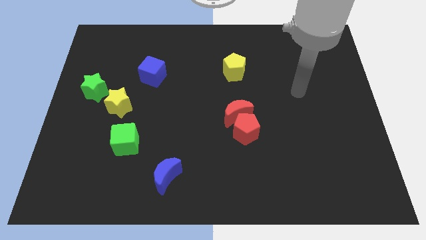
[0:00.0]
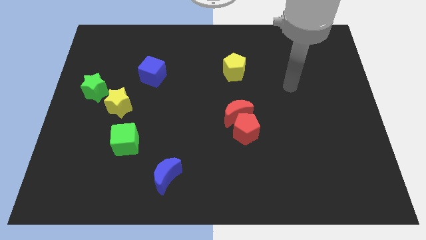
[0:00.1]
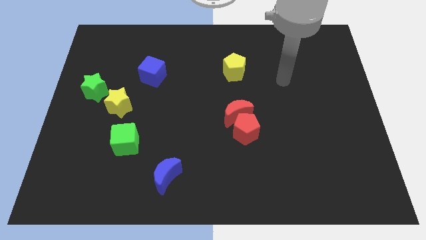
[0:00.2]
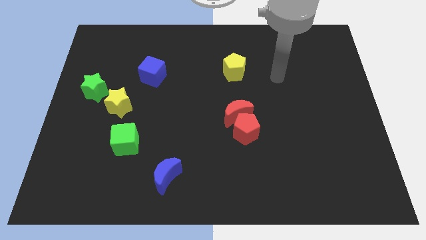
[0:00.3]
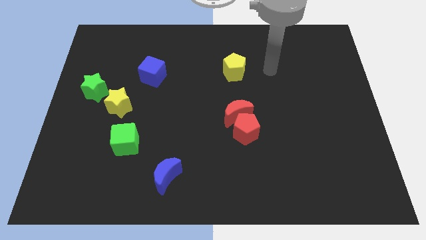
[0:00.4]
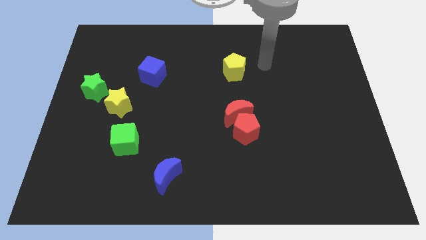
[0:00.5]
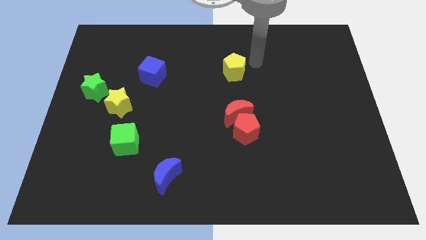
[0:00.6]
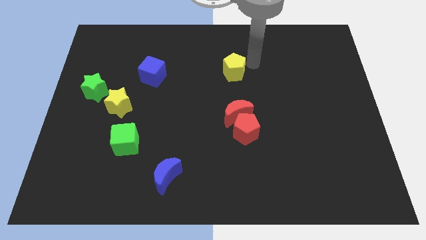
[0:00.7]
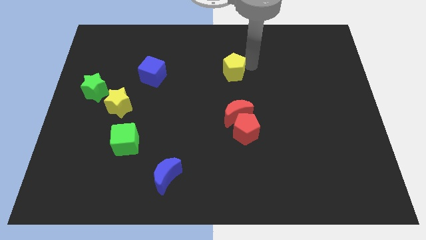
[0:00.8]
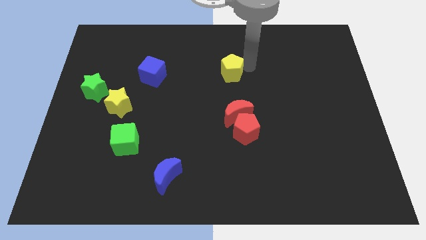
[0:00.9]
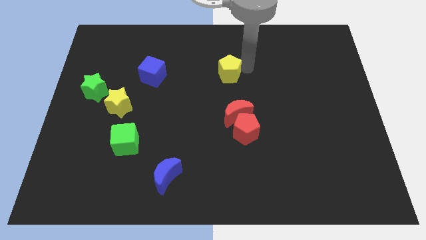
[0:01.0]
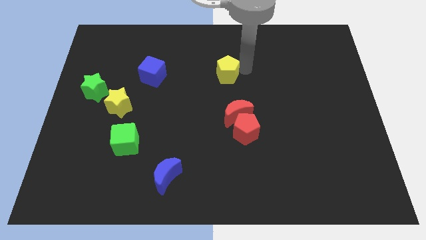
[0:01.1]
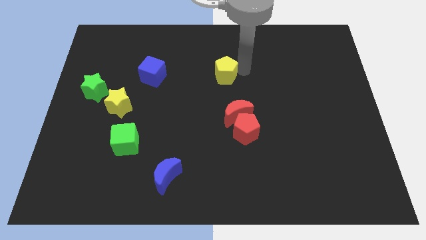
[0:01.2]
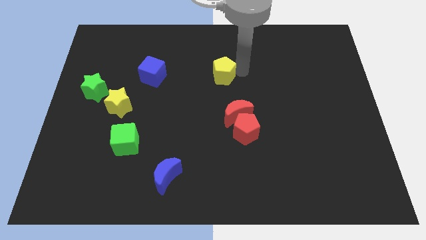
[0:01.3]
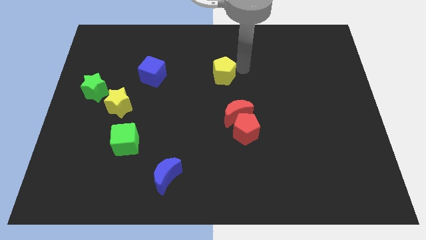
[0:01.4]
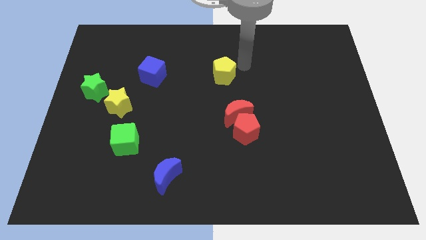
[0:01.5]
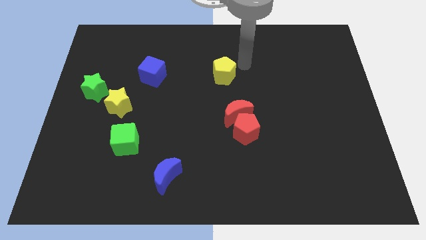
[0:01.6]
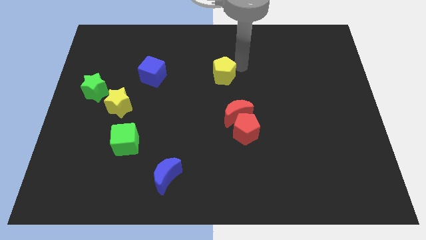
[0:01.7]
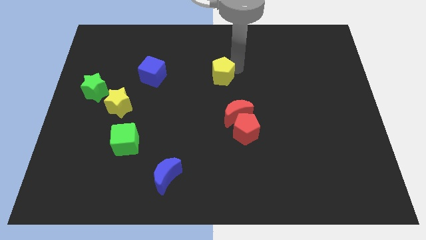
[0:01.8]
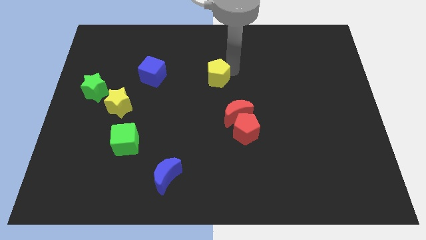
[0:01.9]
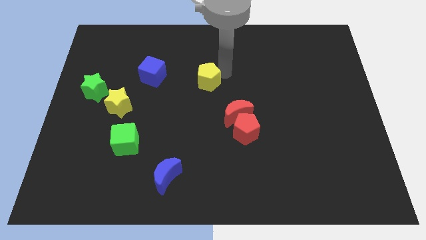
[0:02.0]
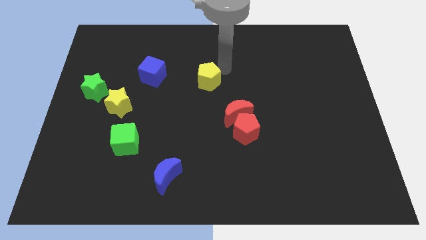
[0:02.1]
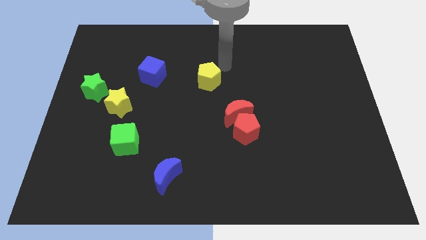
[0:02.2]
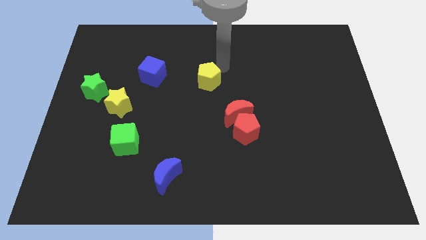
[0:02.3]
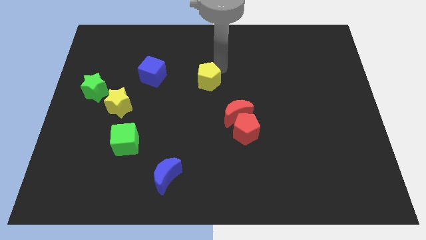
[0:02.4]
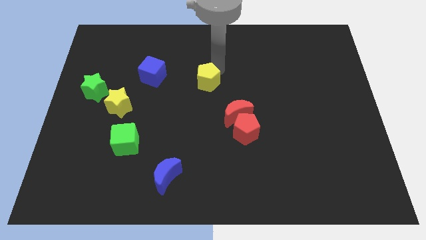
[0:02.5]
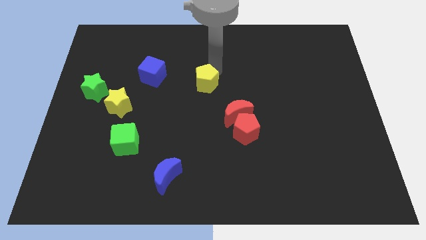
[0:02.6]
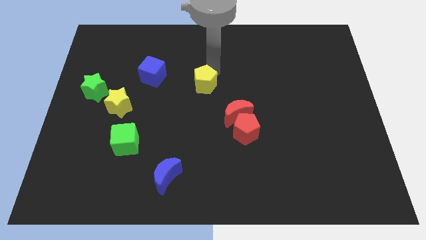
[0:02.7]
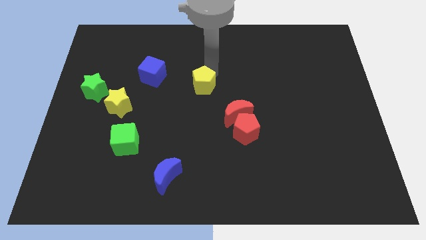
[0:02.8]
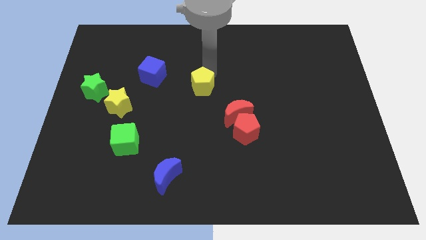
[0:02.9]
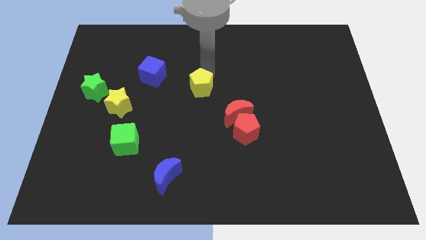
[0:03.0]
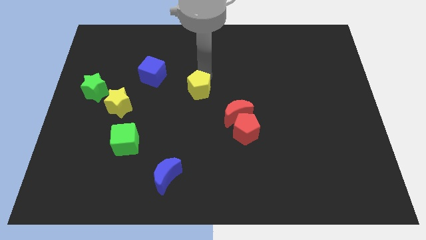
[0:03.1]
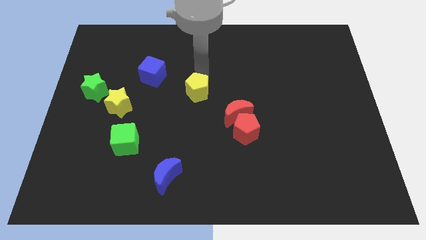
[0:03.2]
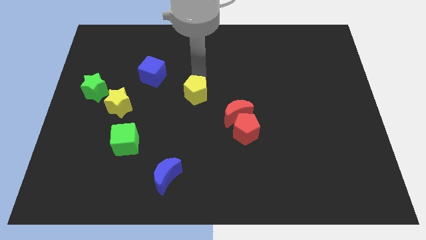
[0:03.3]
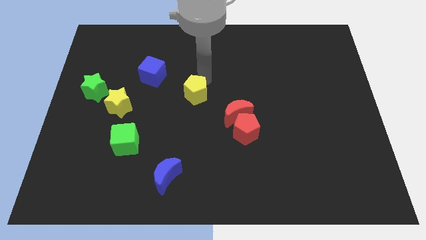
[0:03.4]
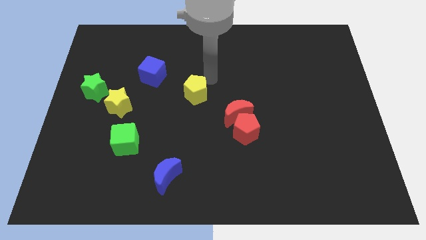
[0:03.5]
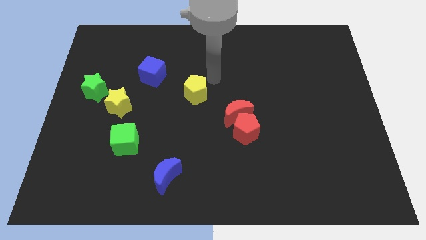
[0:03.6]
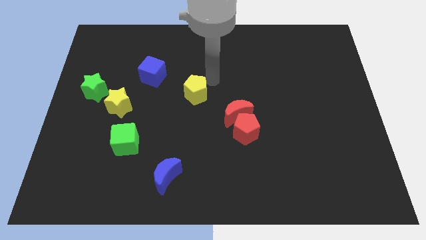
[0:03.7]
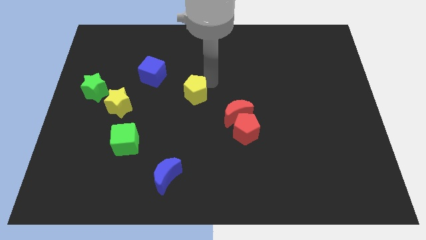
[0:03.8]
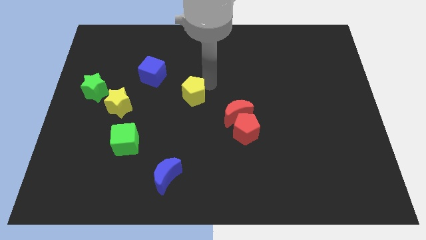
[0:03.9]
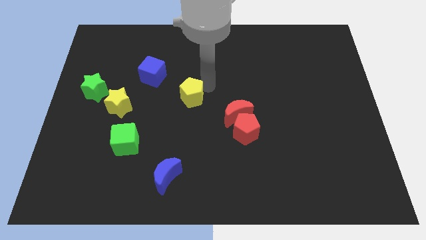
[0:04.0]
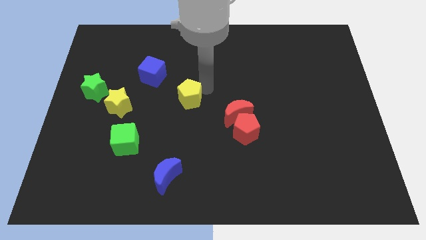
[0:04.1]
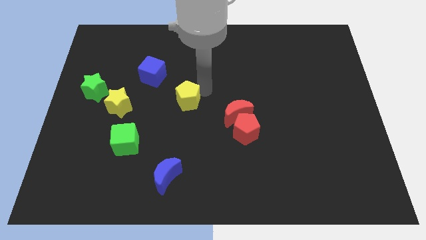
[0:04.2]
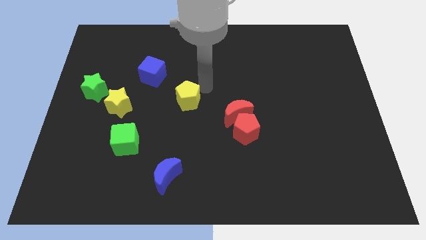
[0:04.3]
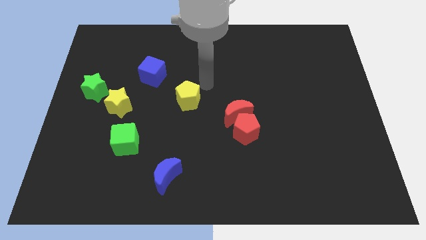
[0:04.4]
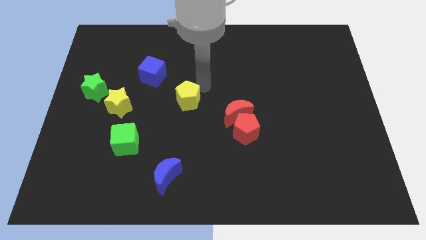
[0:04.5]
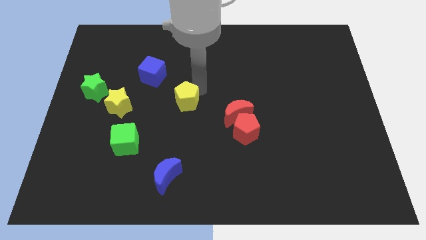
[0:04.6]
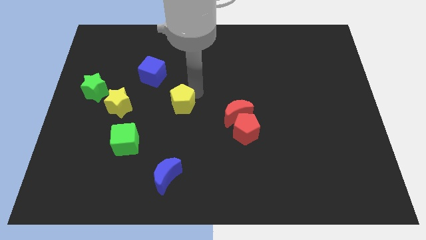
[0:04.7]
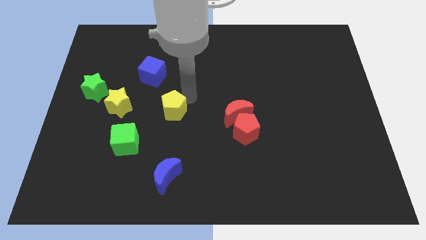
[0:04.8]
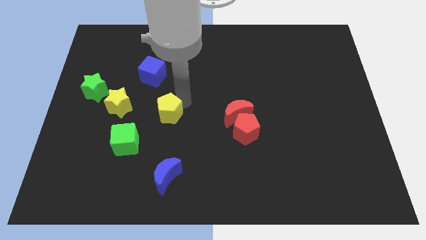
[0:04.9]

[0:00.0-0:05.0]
move the yellow pentagon to the top right side of the green cube

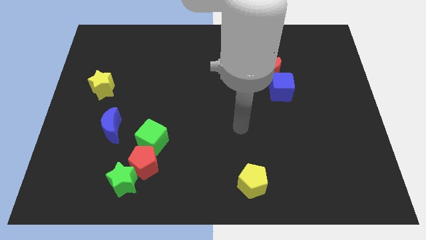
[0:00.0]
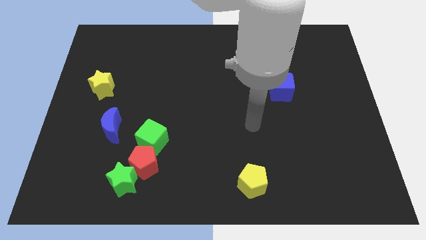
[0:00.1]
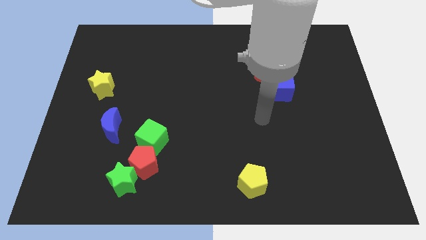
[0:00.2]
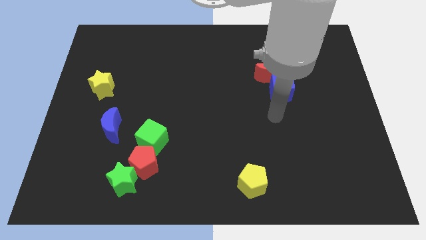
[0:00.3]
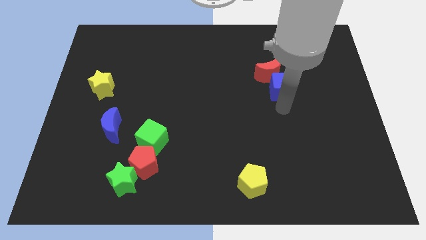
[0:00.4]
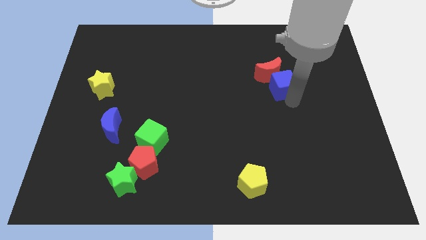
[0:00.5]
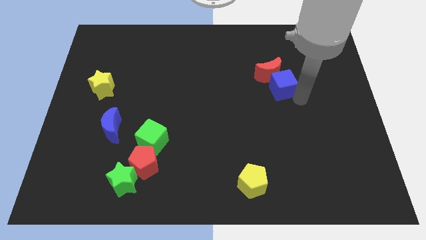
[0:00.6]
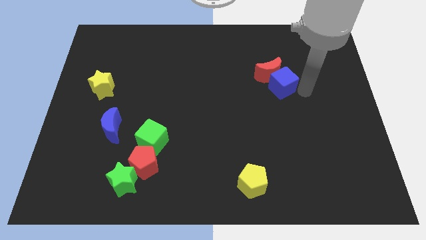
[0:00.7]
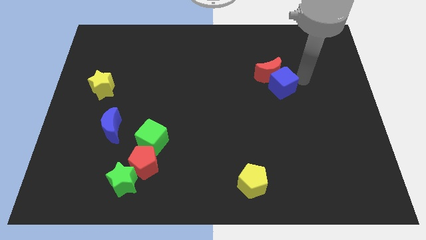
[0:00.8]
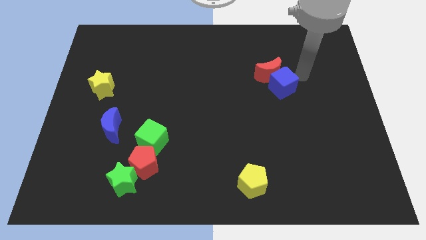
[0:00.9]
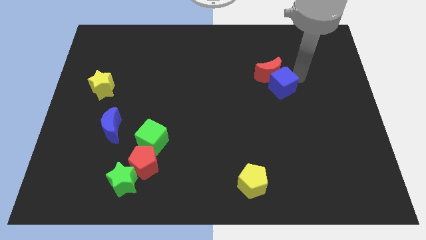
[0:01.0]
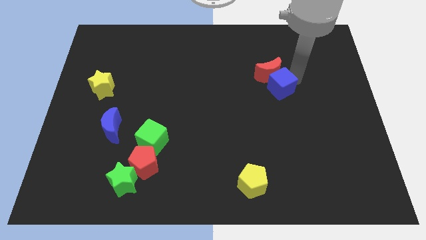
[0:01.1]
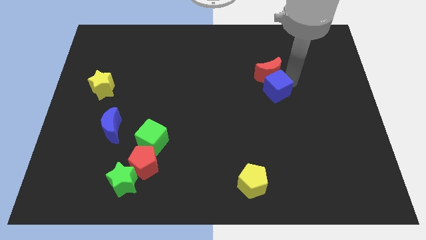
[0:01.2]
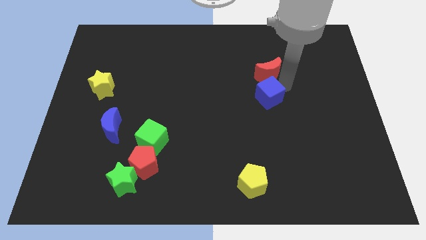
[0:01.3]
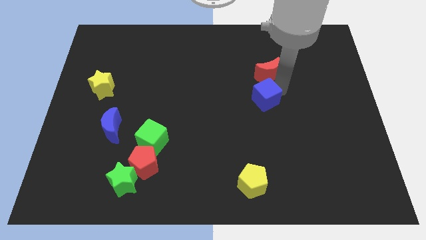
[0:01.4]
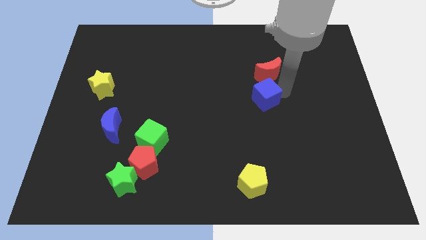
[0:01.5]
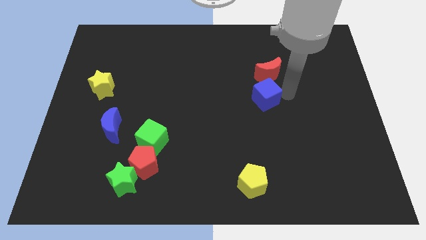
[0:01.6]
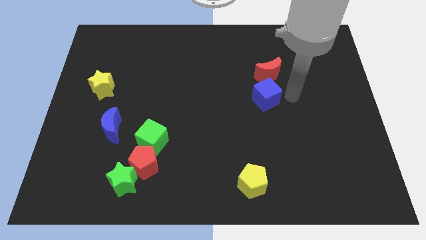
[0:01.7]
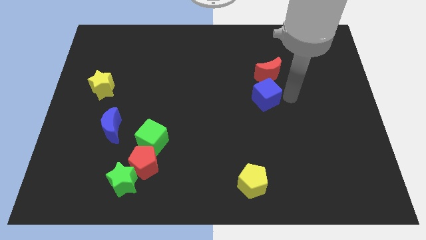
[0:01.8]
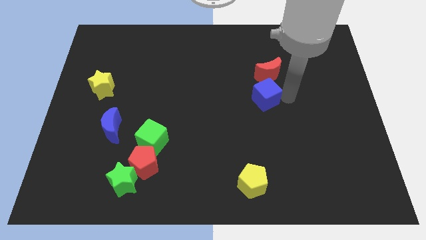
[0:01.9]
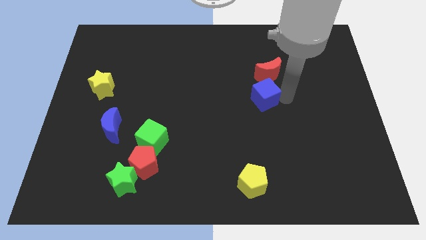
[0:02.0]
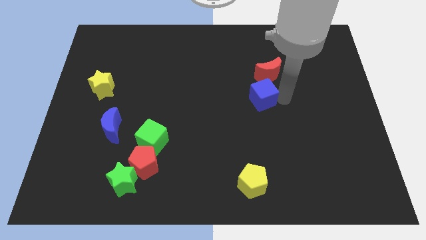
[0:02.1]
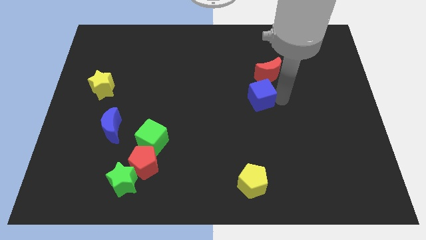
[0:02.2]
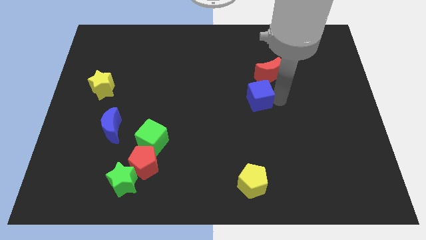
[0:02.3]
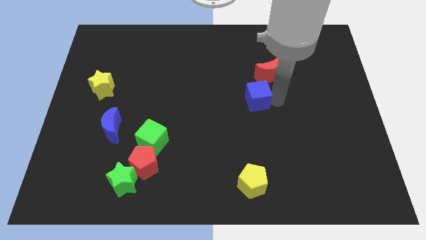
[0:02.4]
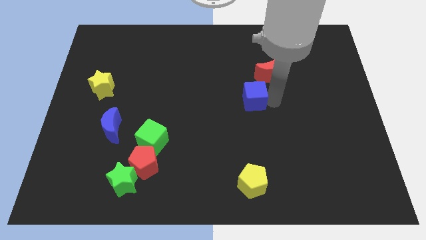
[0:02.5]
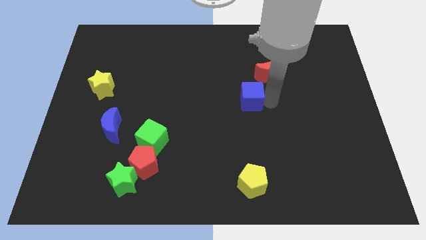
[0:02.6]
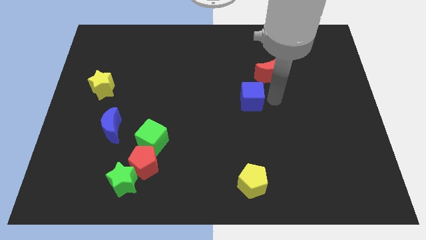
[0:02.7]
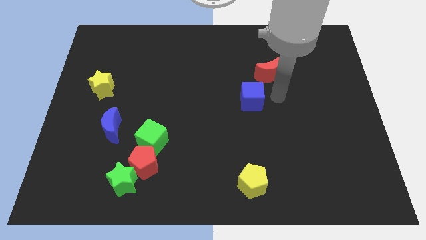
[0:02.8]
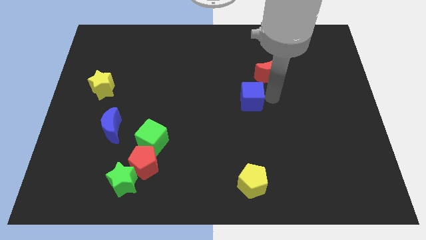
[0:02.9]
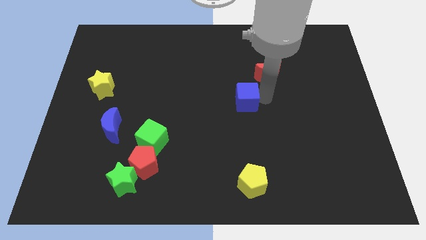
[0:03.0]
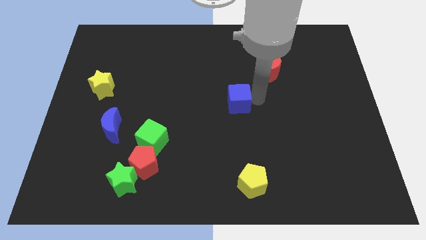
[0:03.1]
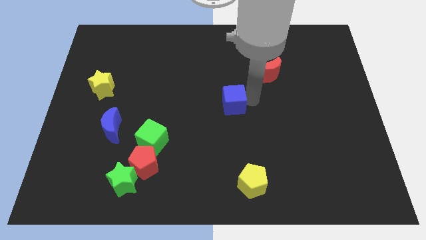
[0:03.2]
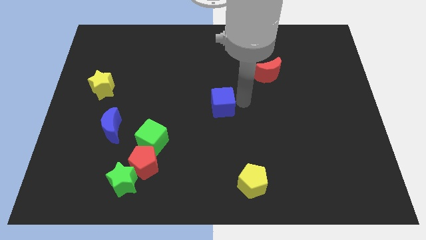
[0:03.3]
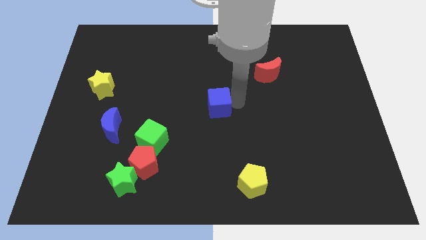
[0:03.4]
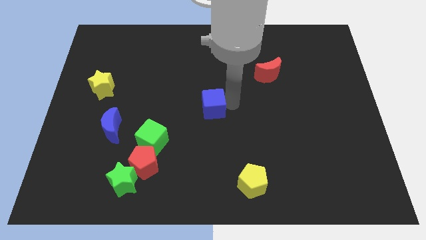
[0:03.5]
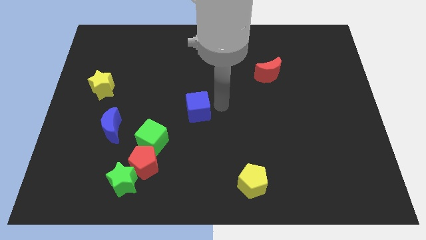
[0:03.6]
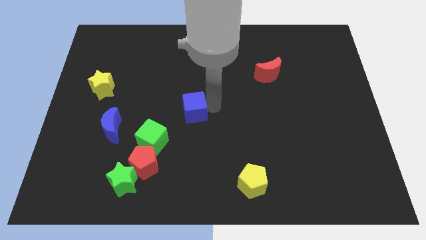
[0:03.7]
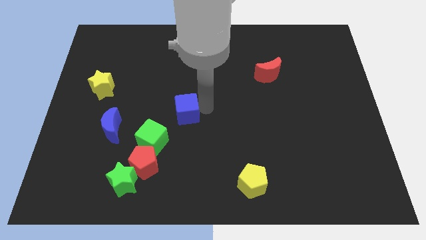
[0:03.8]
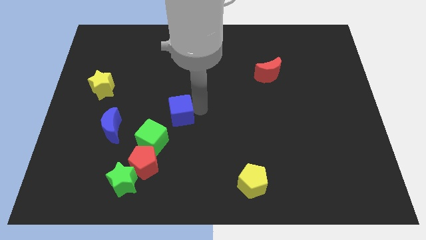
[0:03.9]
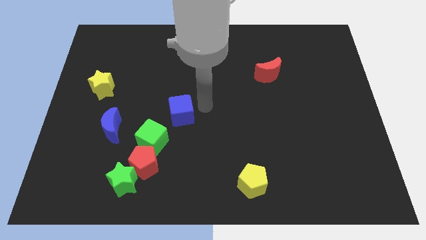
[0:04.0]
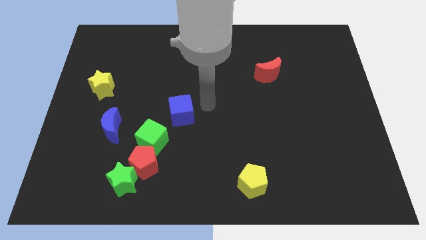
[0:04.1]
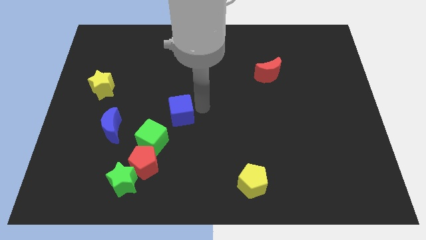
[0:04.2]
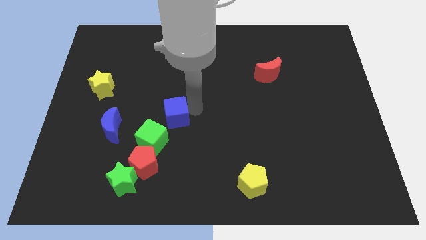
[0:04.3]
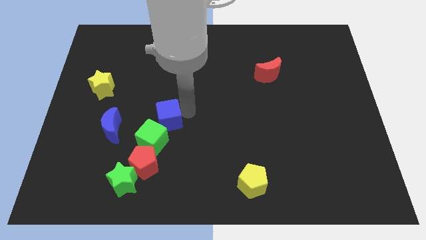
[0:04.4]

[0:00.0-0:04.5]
move the blue cube to the top side of the red pentagon
